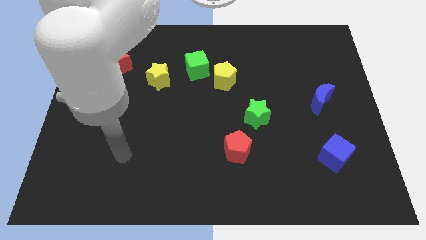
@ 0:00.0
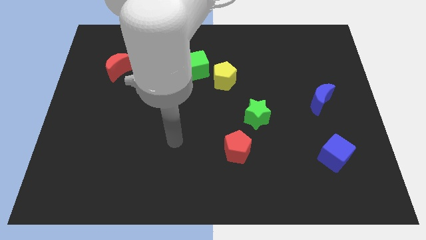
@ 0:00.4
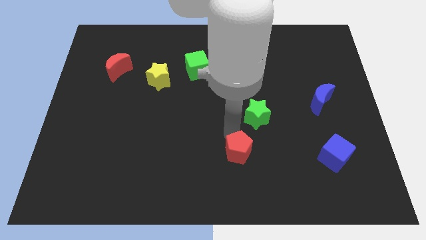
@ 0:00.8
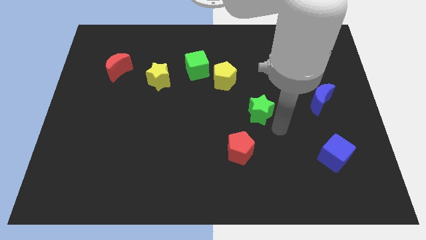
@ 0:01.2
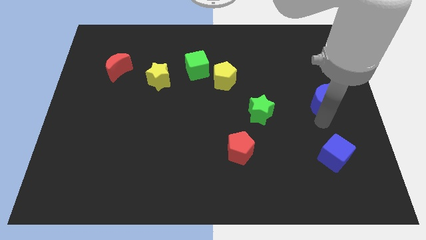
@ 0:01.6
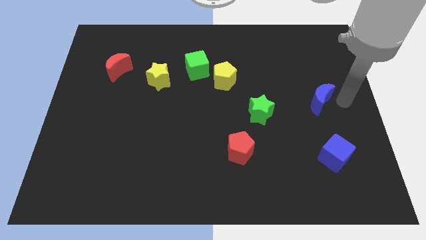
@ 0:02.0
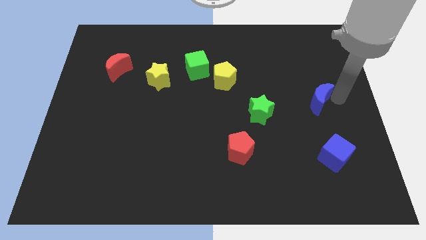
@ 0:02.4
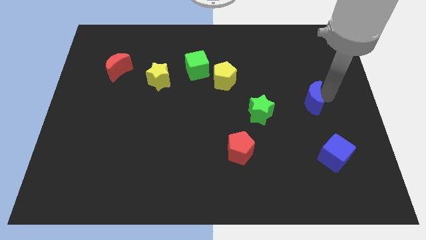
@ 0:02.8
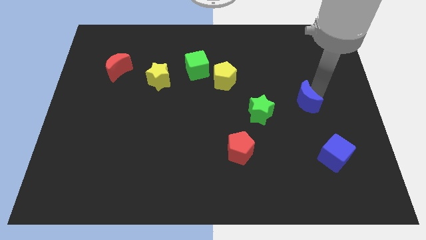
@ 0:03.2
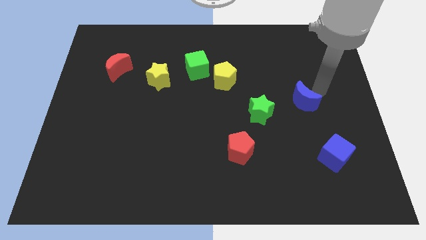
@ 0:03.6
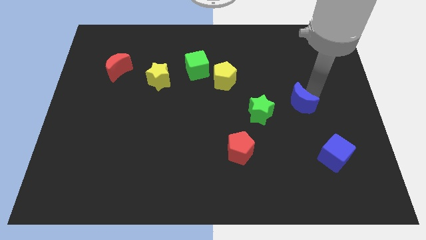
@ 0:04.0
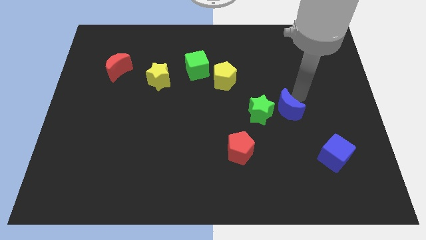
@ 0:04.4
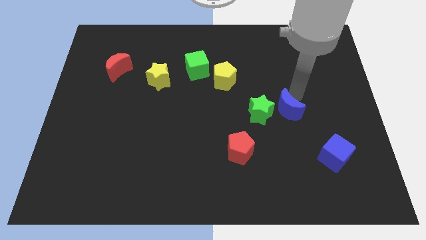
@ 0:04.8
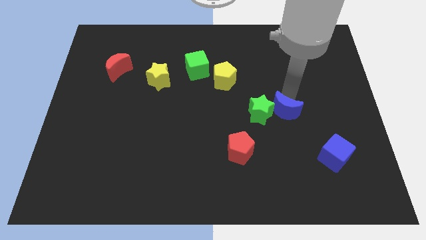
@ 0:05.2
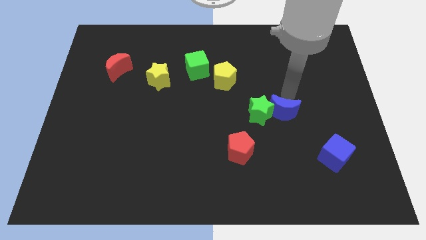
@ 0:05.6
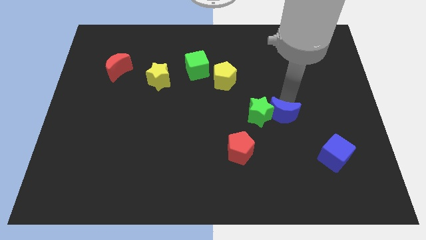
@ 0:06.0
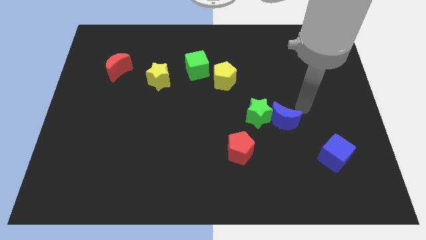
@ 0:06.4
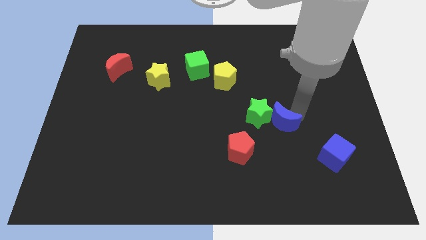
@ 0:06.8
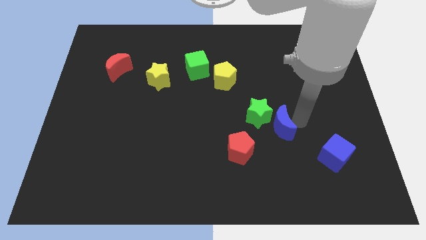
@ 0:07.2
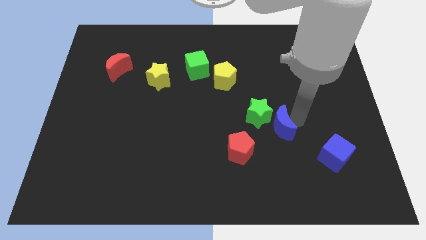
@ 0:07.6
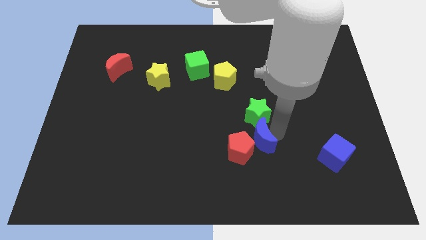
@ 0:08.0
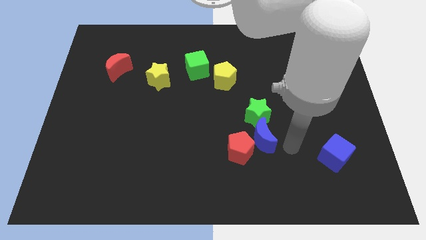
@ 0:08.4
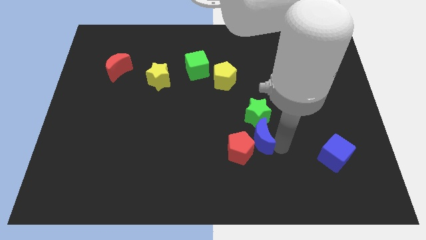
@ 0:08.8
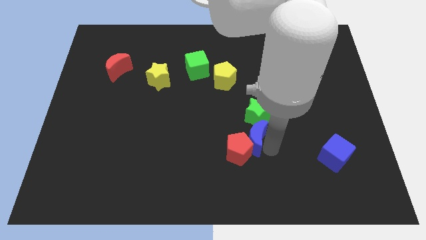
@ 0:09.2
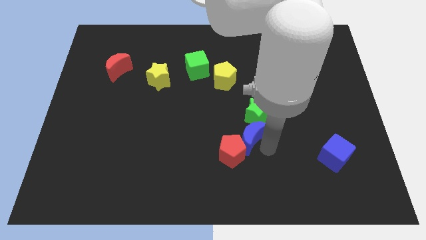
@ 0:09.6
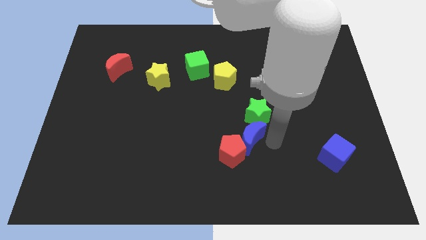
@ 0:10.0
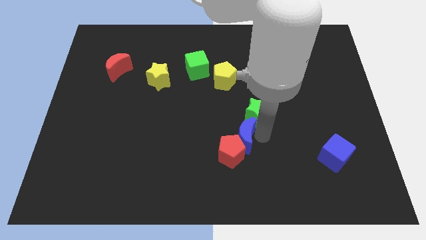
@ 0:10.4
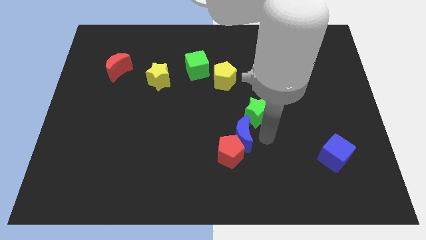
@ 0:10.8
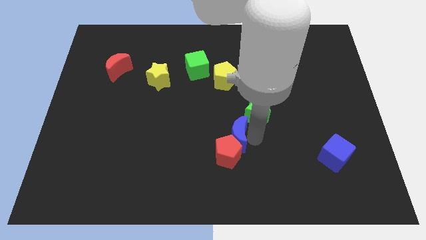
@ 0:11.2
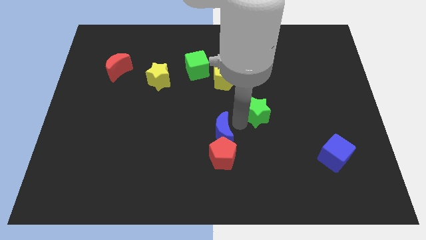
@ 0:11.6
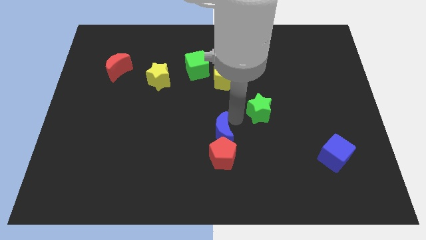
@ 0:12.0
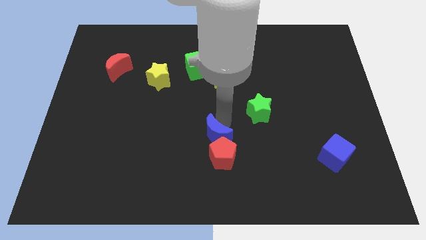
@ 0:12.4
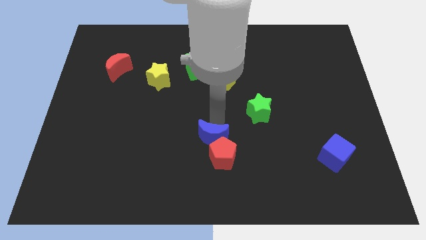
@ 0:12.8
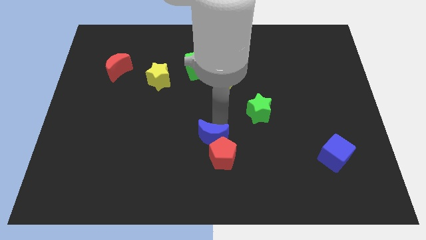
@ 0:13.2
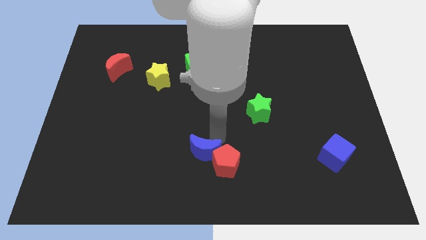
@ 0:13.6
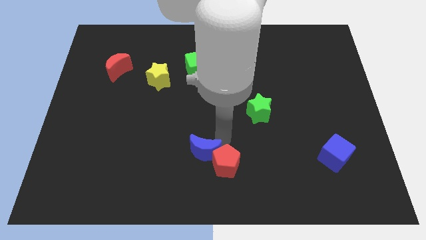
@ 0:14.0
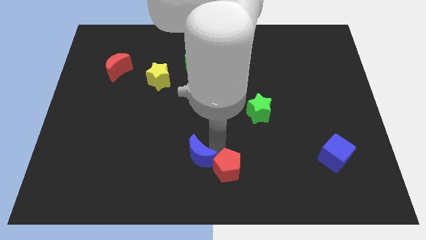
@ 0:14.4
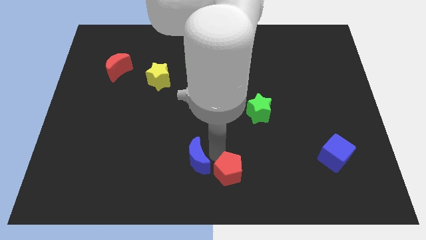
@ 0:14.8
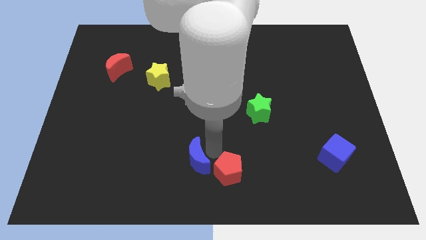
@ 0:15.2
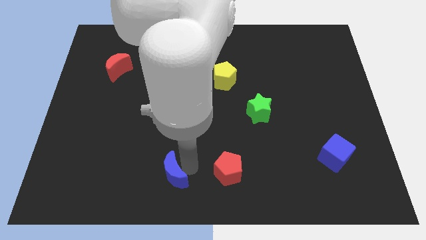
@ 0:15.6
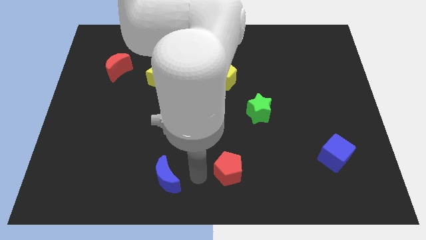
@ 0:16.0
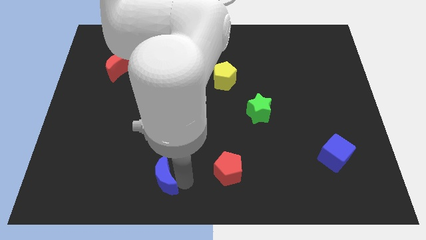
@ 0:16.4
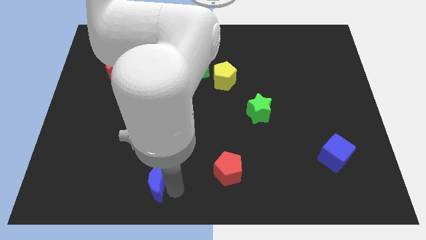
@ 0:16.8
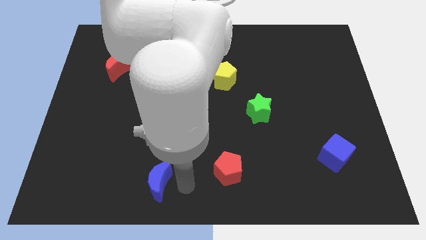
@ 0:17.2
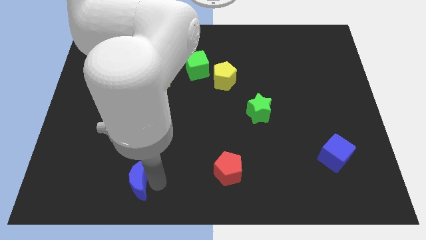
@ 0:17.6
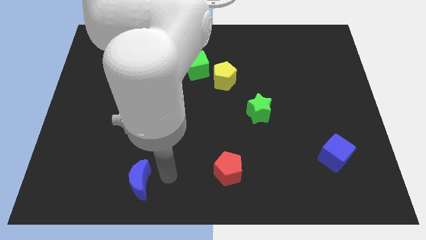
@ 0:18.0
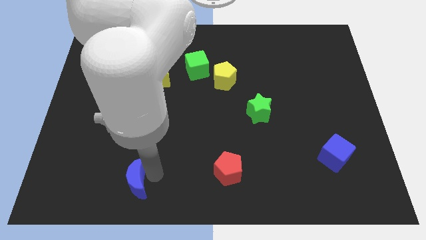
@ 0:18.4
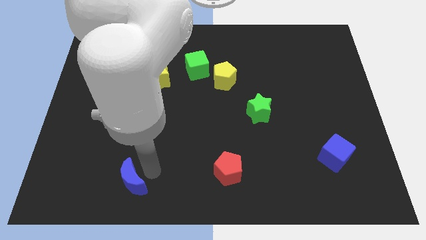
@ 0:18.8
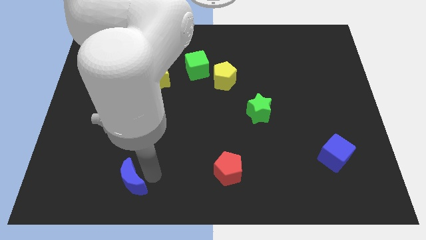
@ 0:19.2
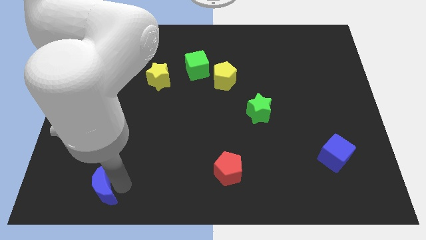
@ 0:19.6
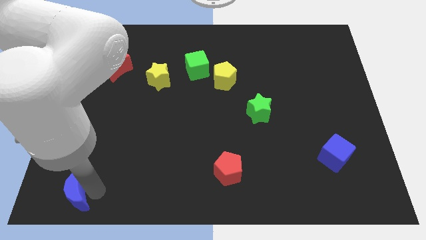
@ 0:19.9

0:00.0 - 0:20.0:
push the blue moon to the lower left corner
